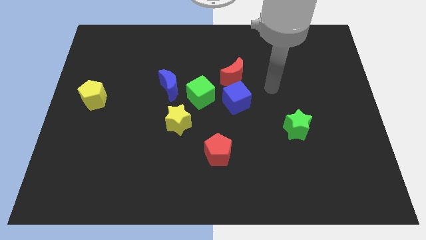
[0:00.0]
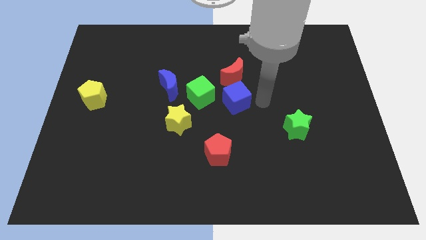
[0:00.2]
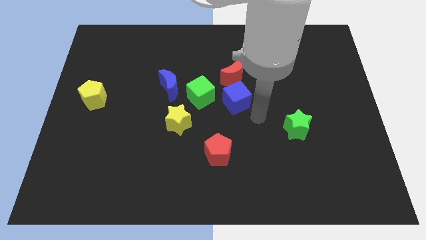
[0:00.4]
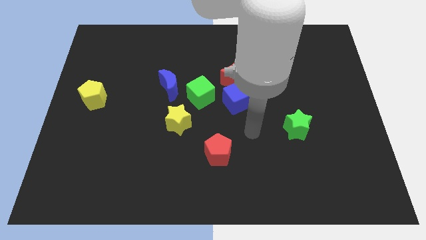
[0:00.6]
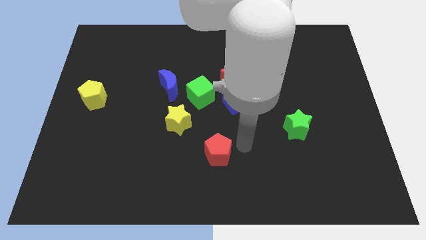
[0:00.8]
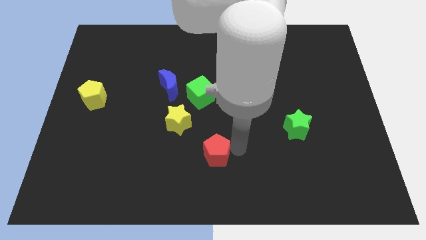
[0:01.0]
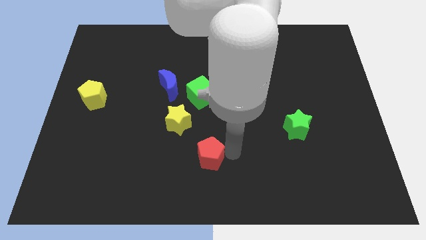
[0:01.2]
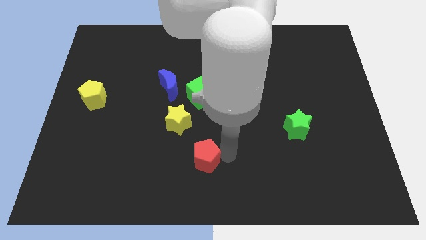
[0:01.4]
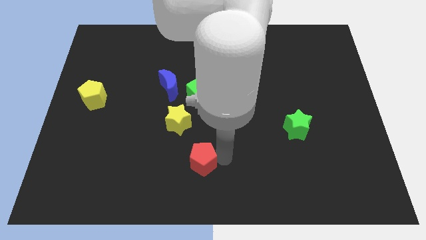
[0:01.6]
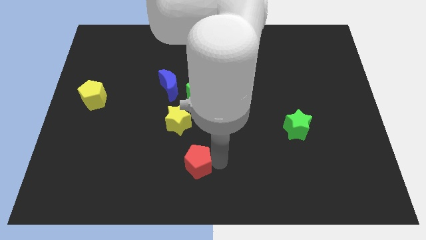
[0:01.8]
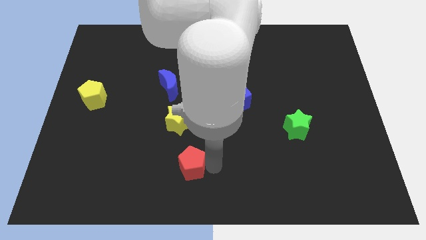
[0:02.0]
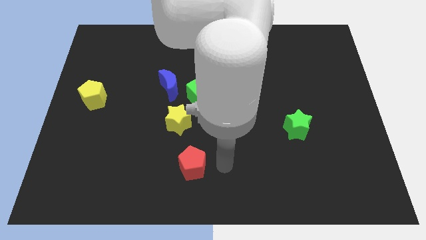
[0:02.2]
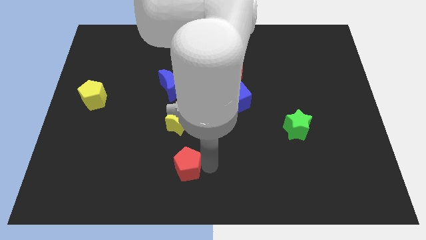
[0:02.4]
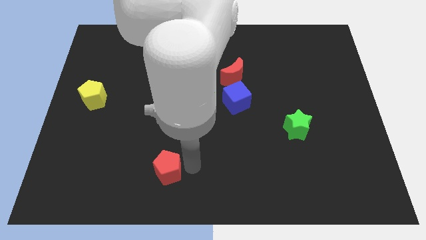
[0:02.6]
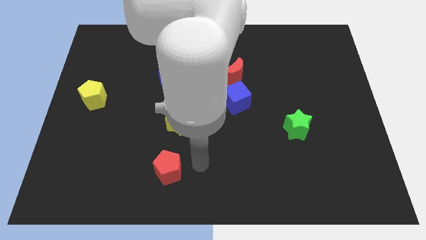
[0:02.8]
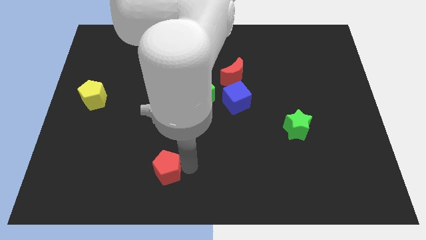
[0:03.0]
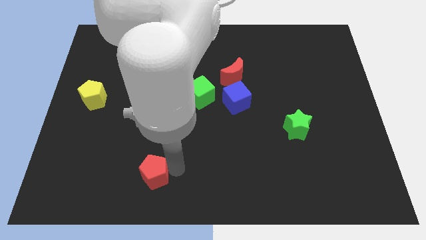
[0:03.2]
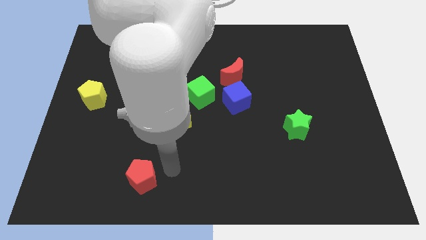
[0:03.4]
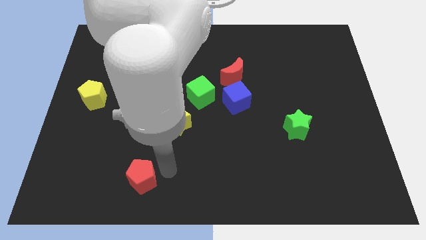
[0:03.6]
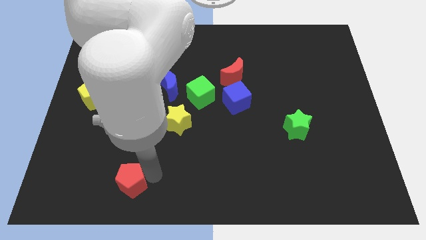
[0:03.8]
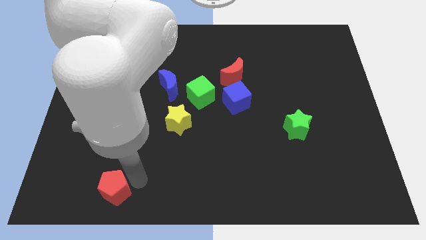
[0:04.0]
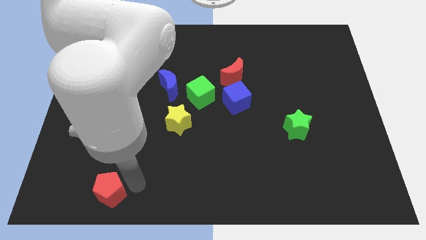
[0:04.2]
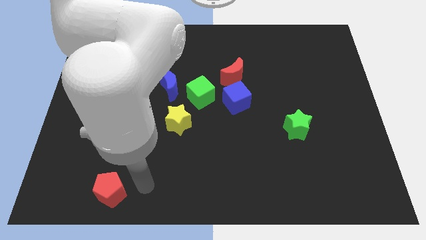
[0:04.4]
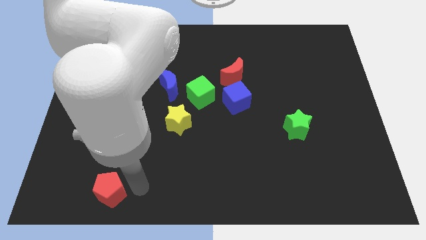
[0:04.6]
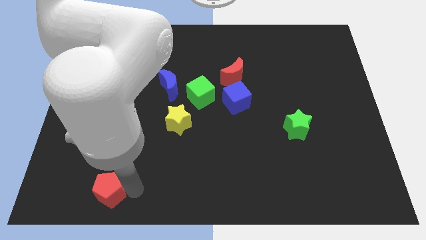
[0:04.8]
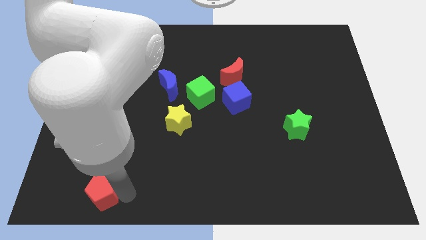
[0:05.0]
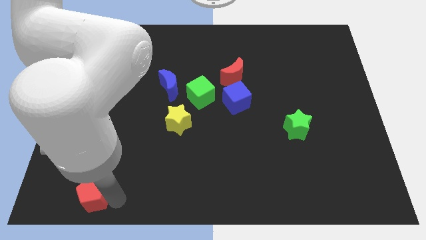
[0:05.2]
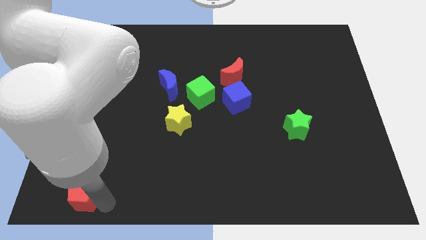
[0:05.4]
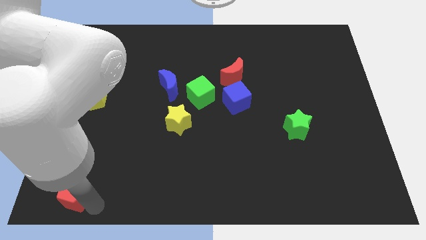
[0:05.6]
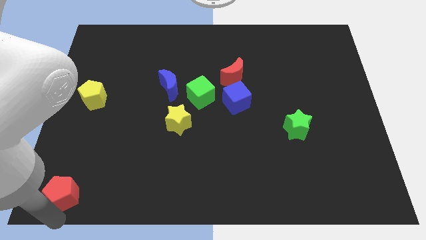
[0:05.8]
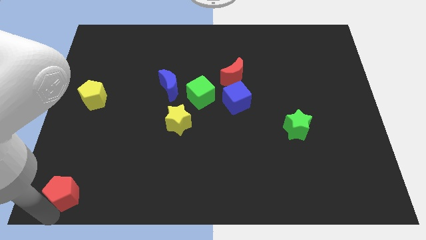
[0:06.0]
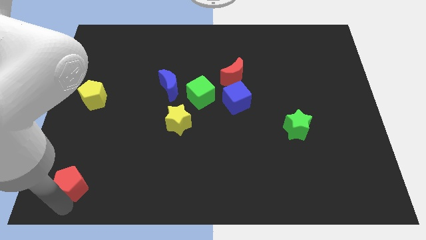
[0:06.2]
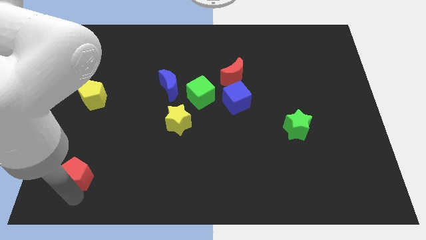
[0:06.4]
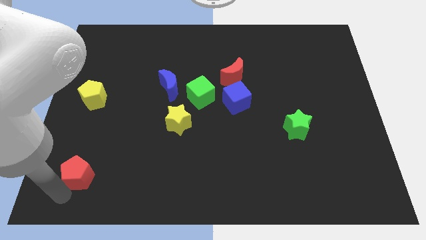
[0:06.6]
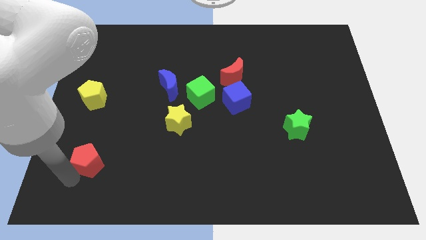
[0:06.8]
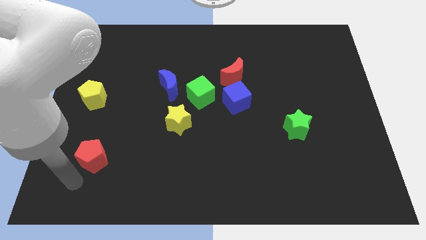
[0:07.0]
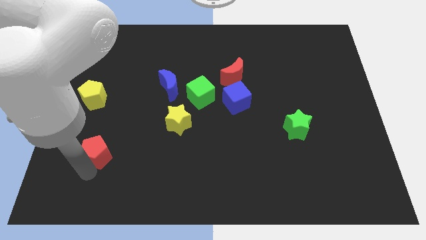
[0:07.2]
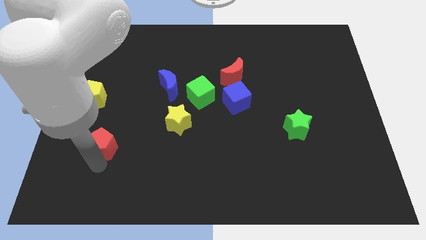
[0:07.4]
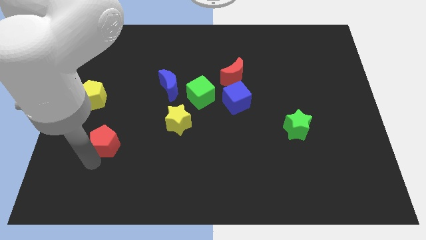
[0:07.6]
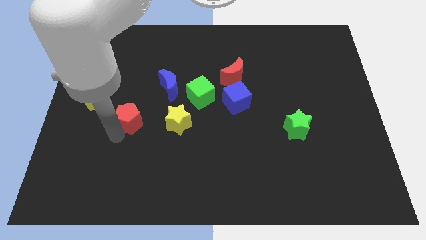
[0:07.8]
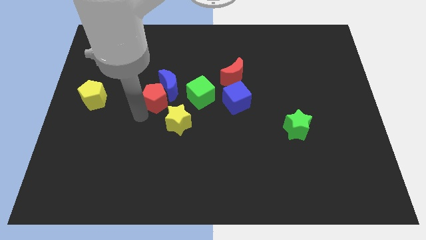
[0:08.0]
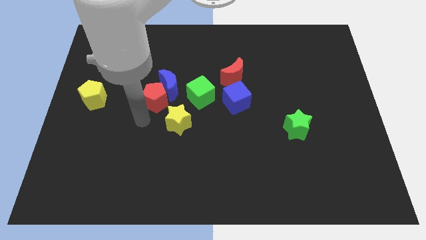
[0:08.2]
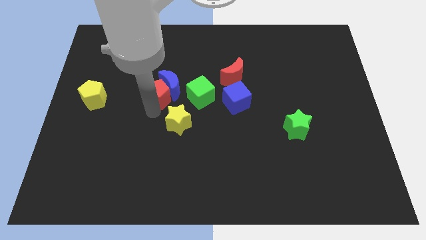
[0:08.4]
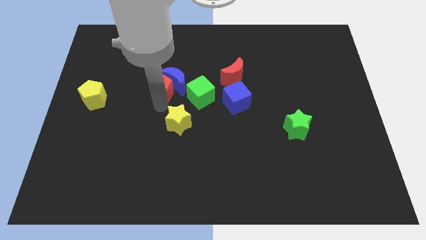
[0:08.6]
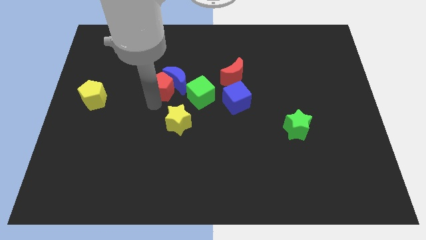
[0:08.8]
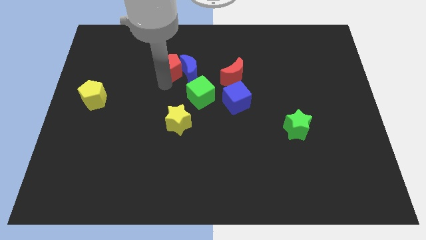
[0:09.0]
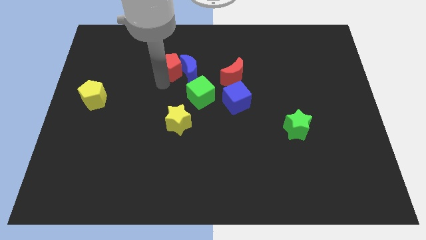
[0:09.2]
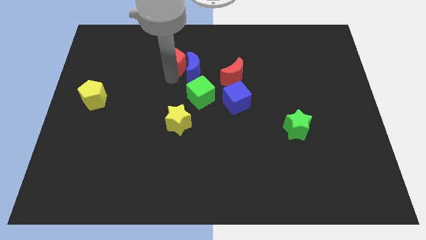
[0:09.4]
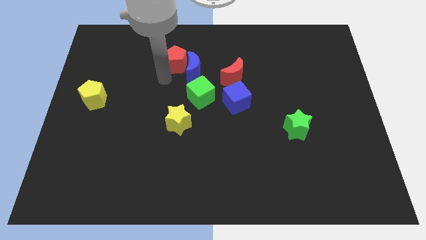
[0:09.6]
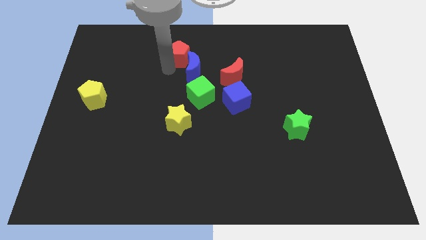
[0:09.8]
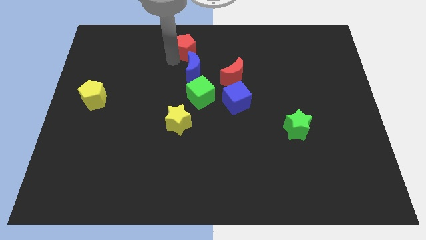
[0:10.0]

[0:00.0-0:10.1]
move the red pentagon to the top

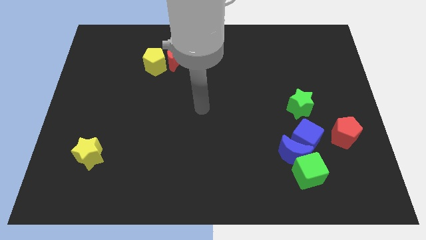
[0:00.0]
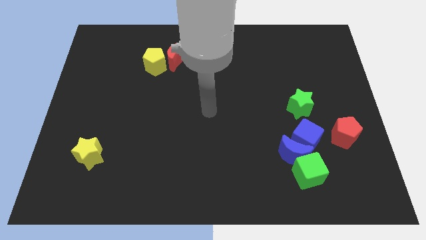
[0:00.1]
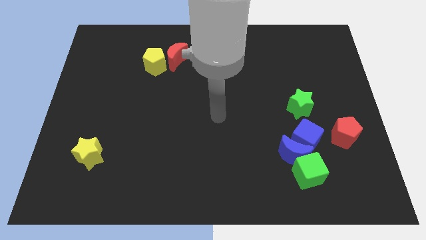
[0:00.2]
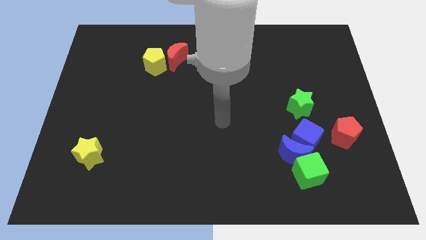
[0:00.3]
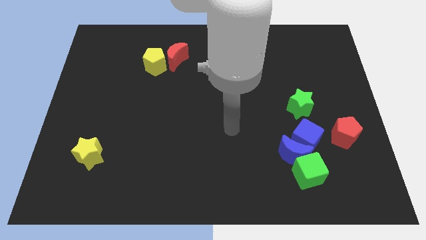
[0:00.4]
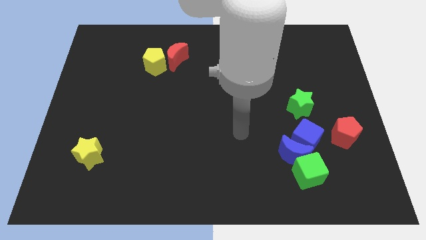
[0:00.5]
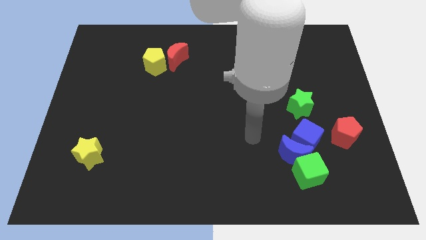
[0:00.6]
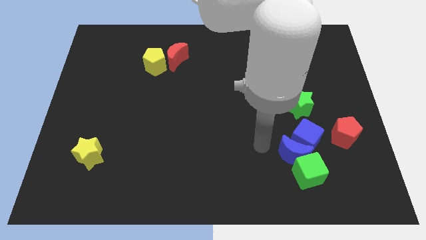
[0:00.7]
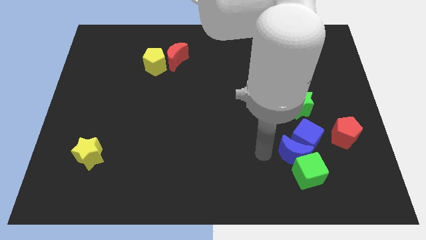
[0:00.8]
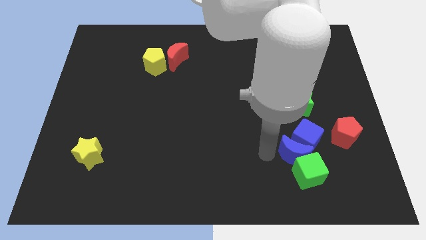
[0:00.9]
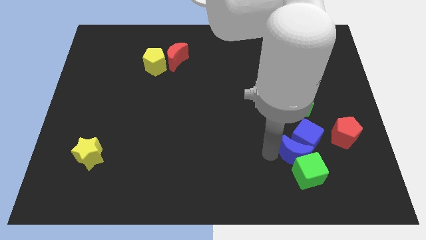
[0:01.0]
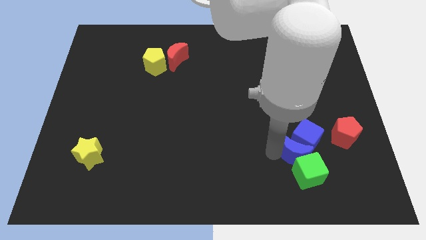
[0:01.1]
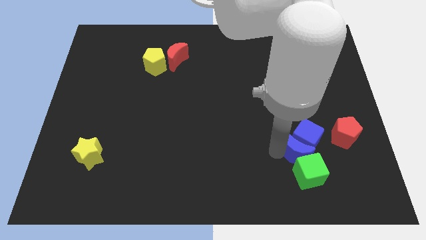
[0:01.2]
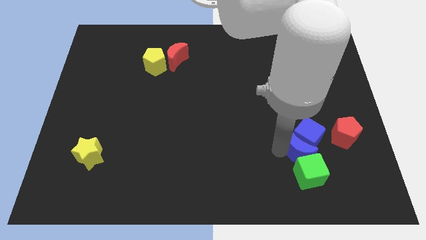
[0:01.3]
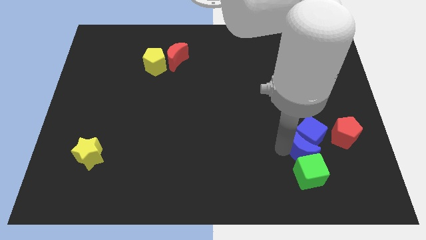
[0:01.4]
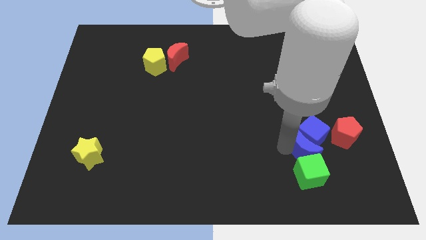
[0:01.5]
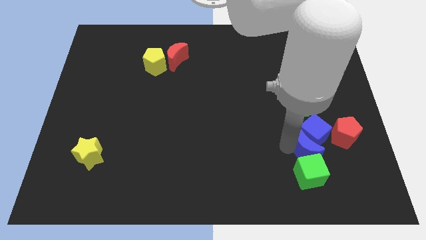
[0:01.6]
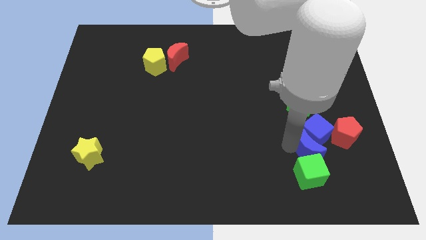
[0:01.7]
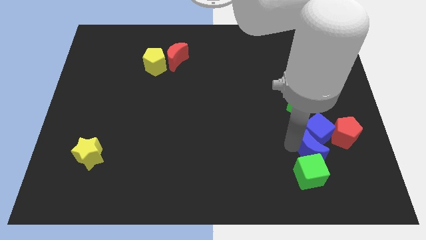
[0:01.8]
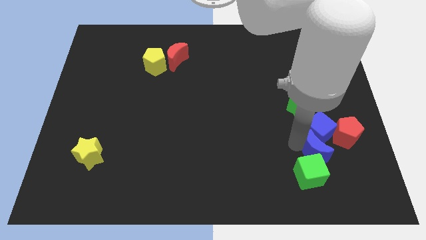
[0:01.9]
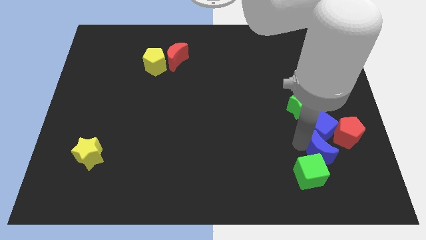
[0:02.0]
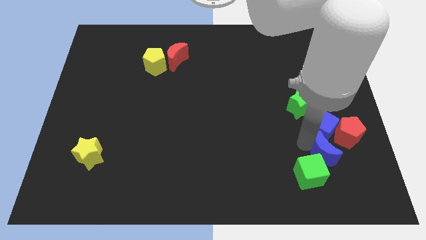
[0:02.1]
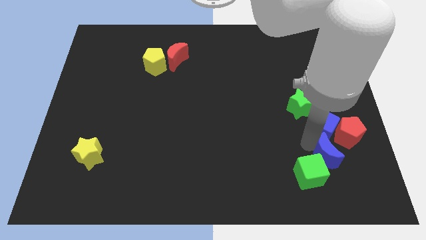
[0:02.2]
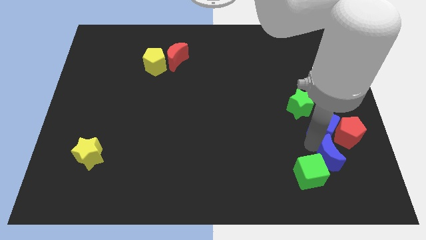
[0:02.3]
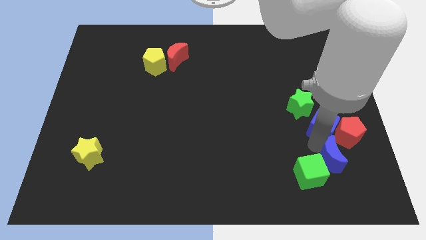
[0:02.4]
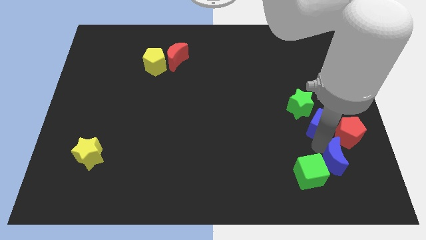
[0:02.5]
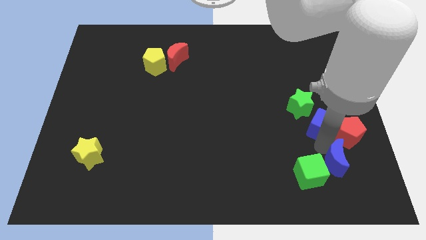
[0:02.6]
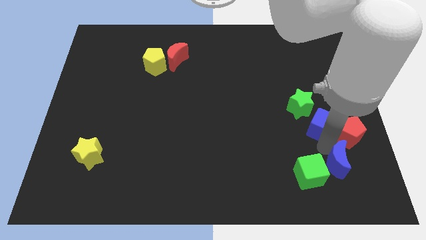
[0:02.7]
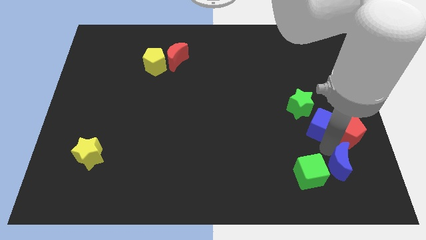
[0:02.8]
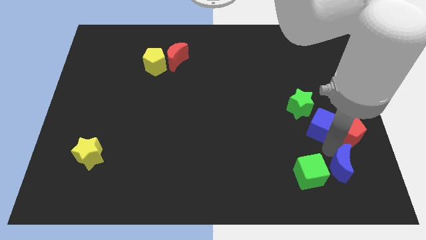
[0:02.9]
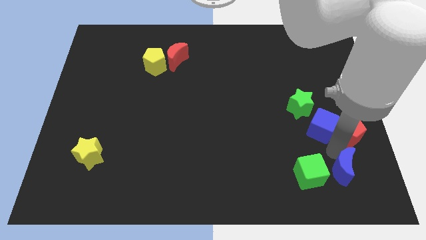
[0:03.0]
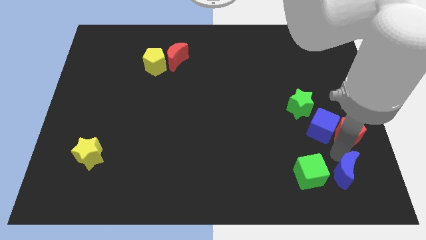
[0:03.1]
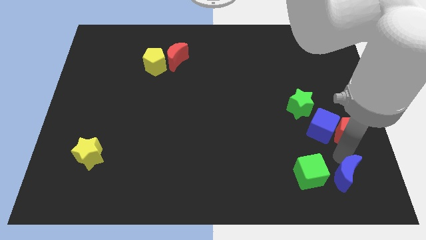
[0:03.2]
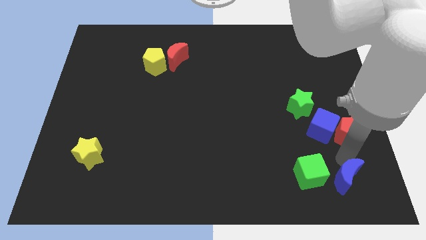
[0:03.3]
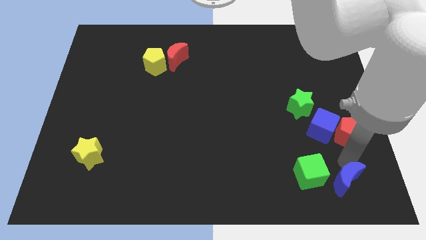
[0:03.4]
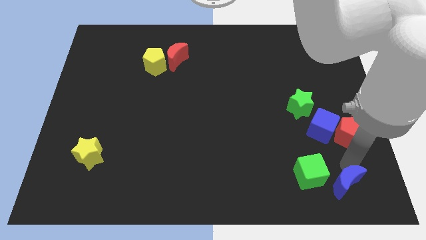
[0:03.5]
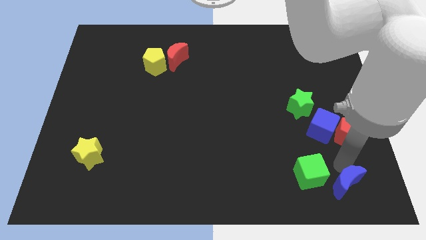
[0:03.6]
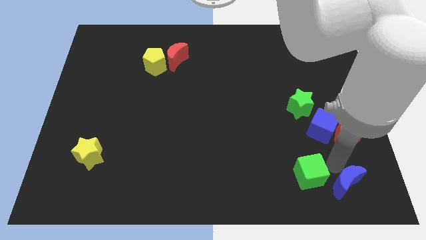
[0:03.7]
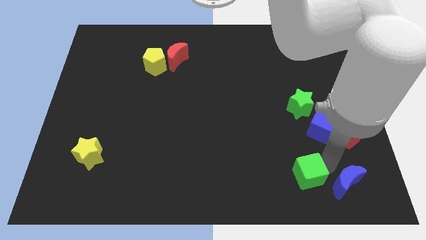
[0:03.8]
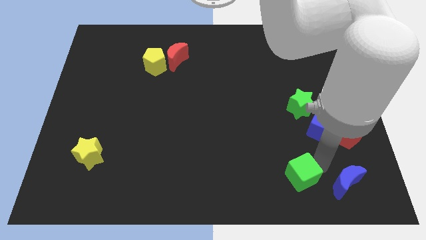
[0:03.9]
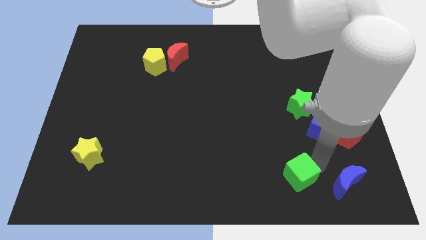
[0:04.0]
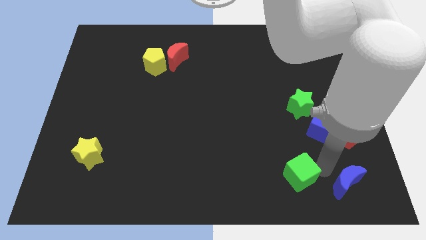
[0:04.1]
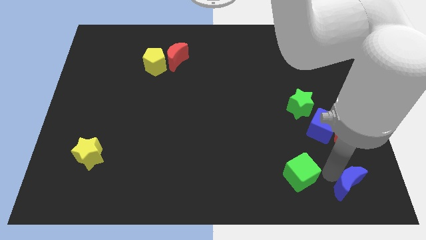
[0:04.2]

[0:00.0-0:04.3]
move the blue moon to the bottom right of the board
